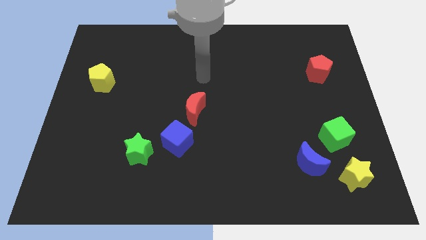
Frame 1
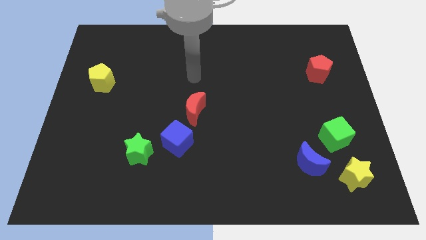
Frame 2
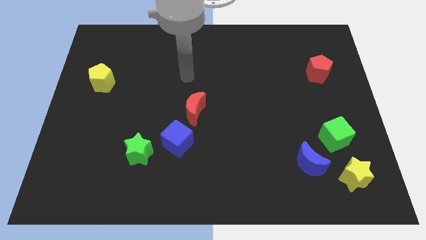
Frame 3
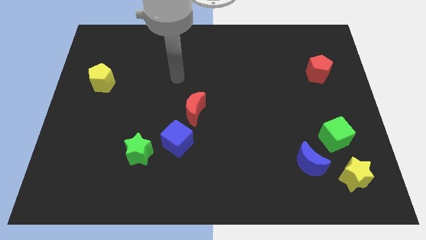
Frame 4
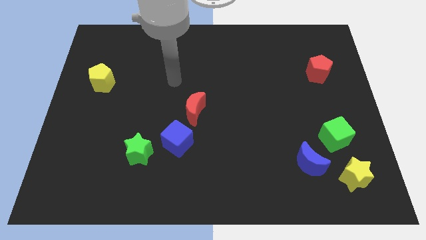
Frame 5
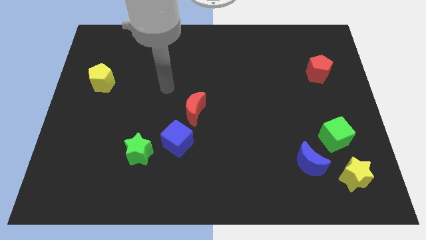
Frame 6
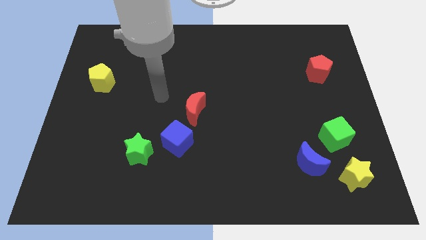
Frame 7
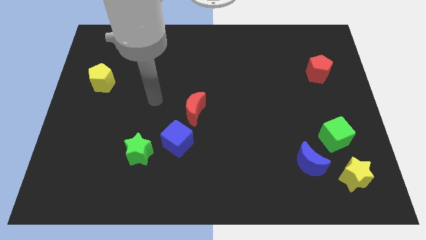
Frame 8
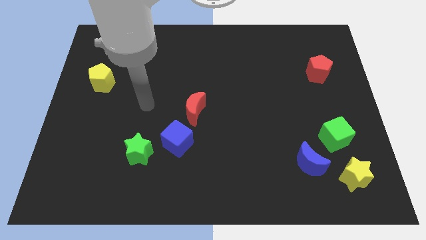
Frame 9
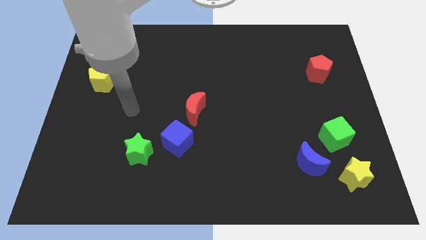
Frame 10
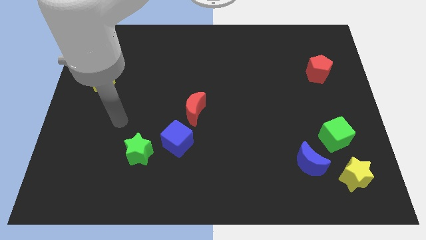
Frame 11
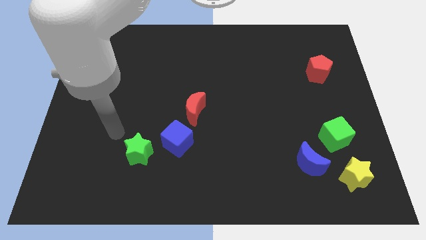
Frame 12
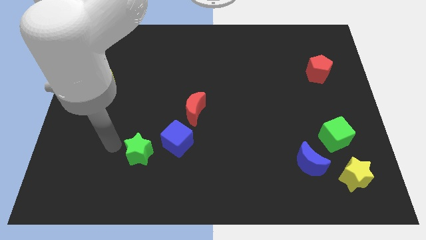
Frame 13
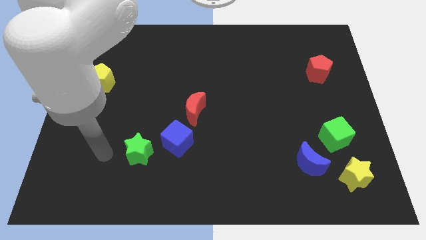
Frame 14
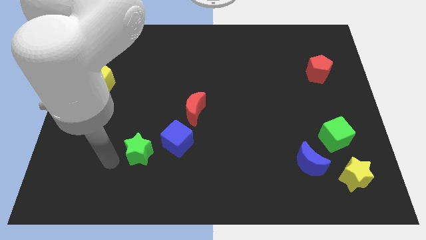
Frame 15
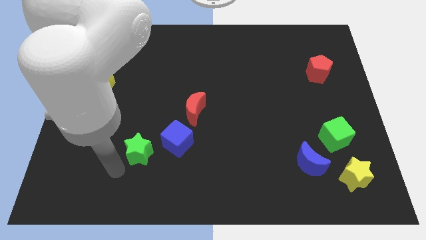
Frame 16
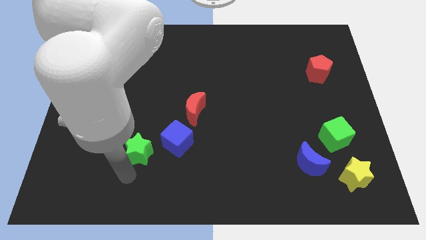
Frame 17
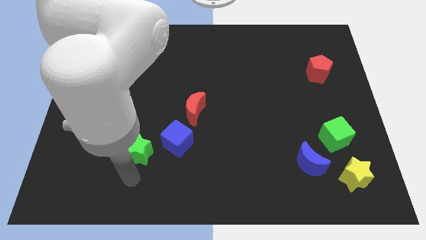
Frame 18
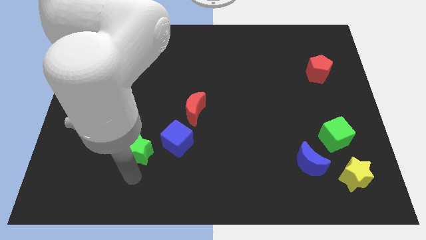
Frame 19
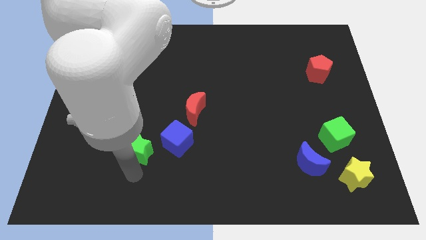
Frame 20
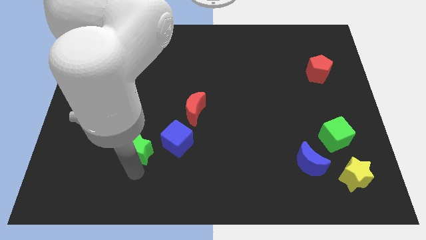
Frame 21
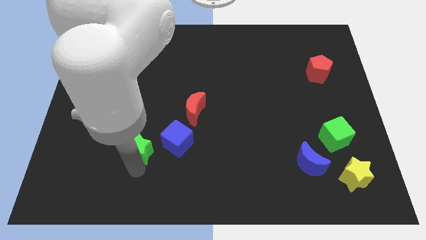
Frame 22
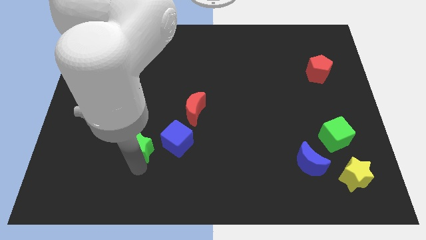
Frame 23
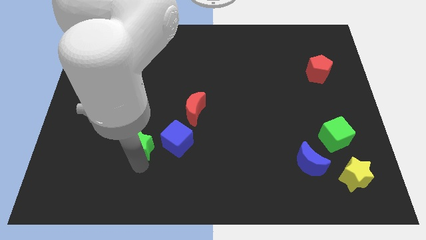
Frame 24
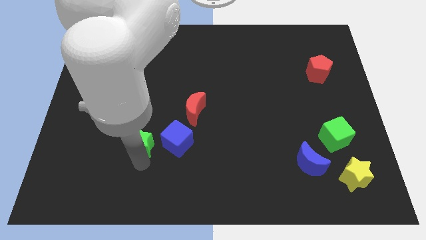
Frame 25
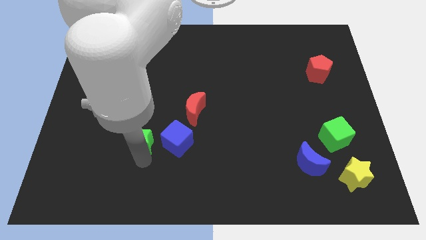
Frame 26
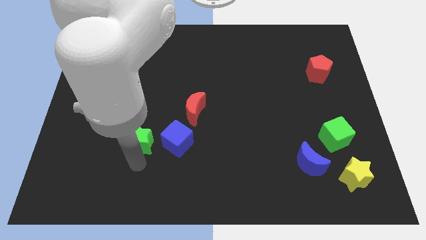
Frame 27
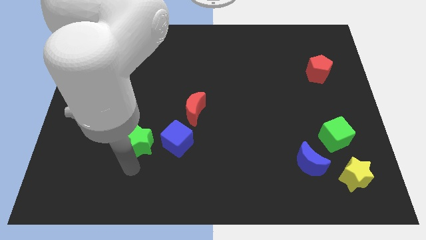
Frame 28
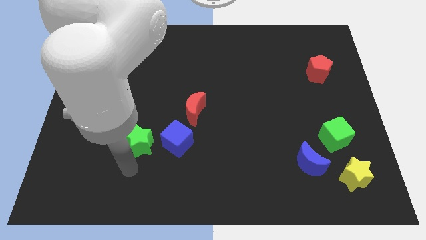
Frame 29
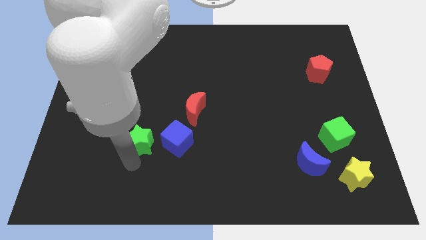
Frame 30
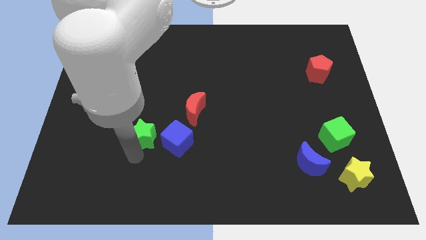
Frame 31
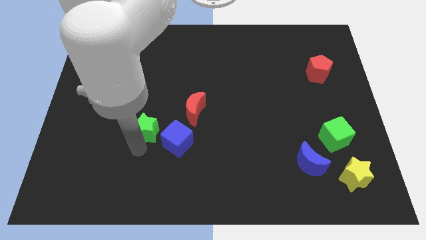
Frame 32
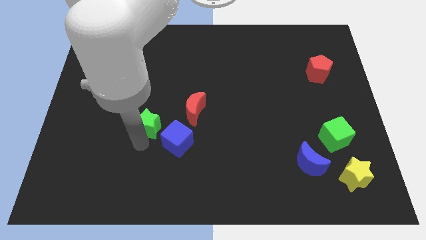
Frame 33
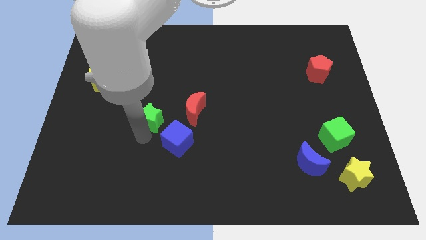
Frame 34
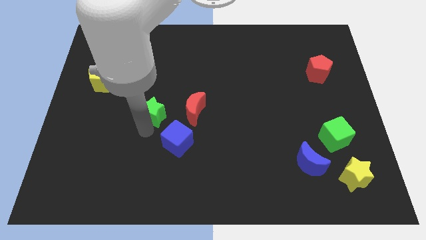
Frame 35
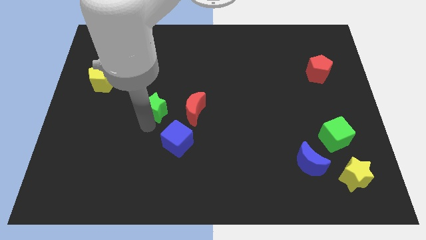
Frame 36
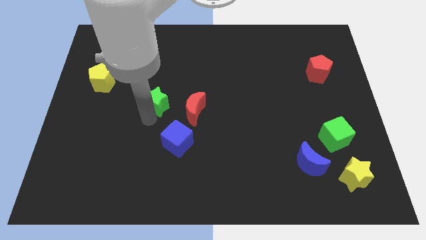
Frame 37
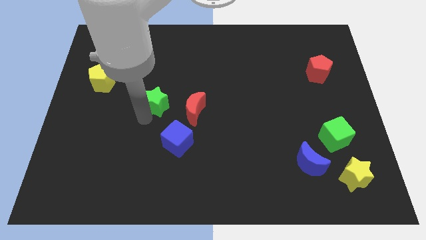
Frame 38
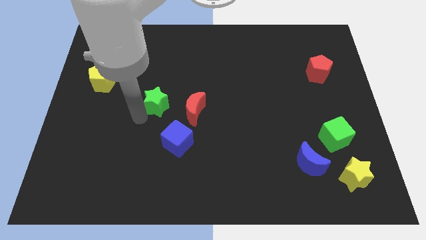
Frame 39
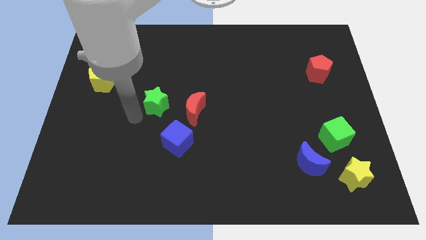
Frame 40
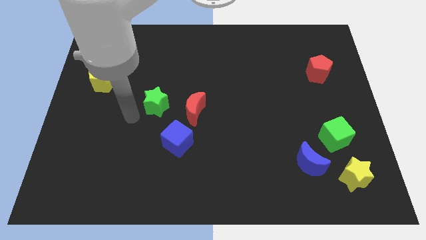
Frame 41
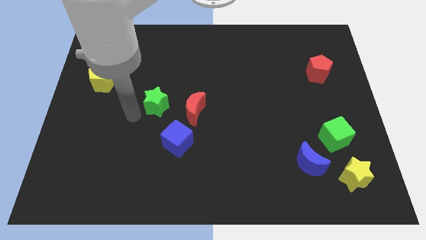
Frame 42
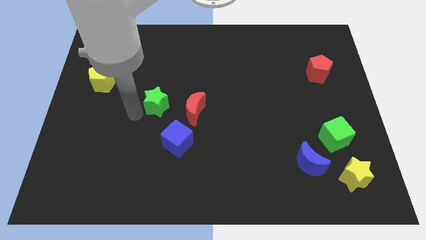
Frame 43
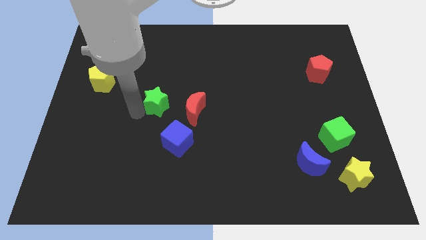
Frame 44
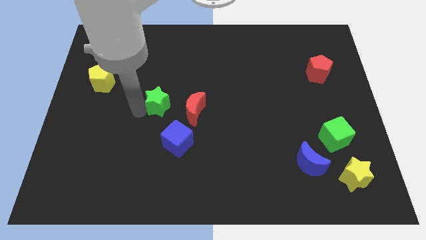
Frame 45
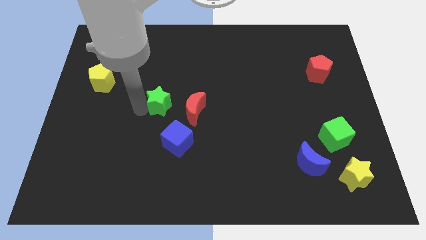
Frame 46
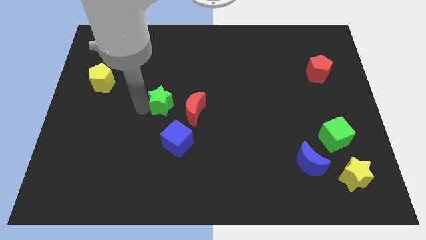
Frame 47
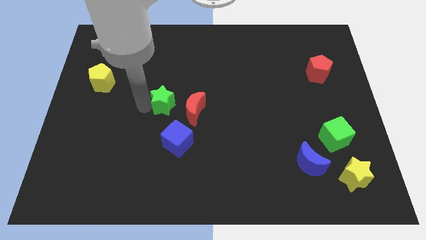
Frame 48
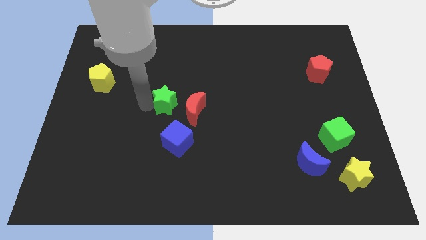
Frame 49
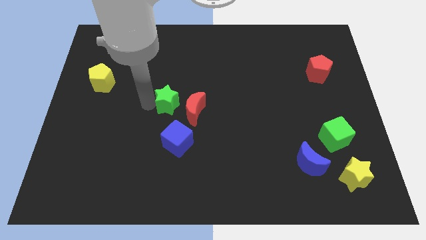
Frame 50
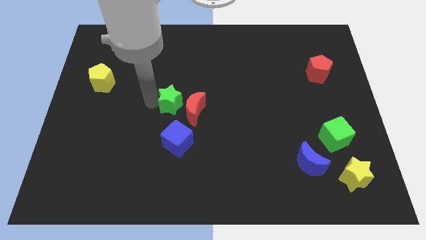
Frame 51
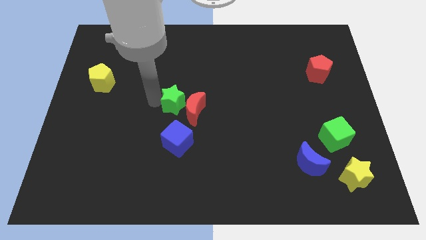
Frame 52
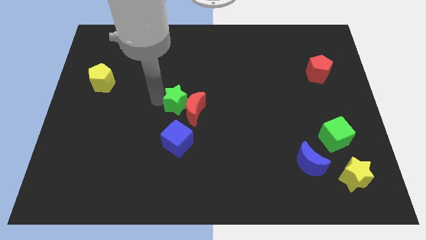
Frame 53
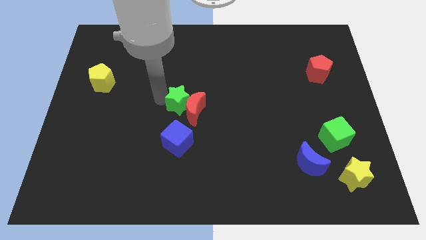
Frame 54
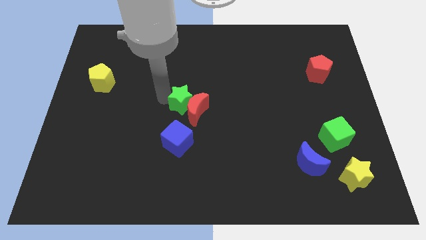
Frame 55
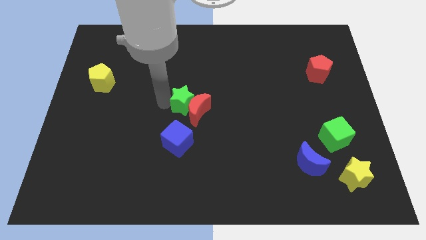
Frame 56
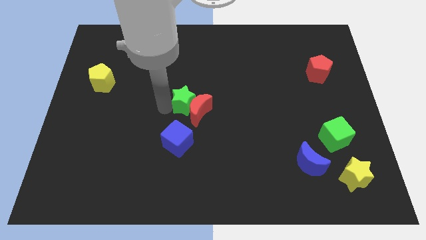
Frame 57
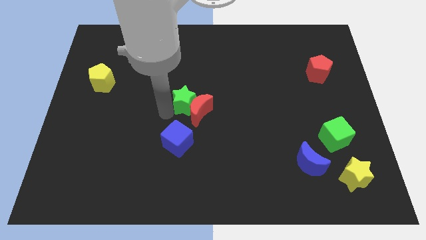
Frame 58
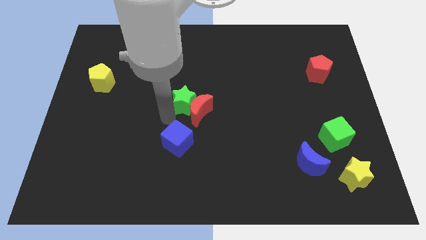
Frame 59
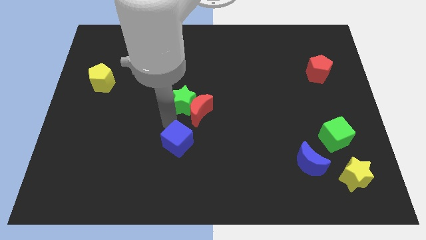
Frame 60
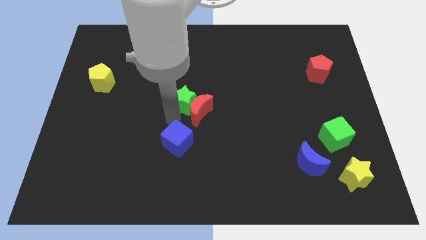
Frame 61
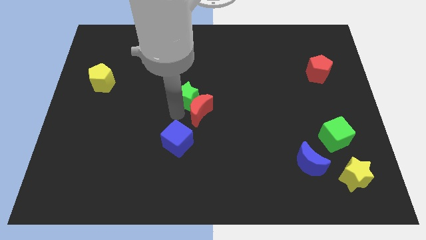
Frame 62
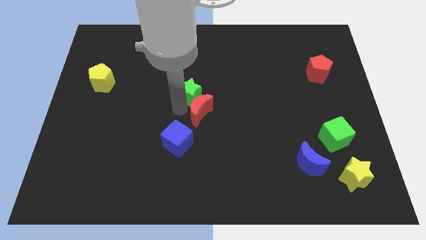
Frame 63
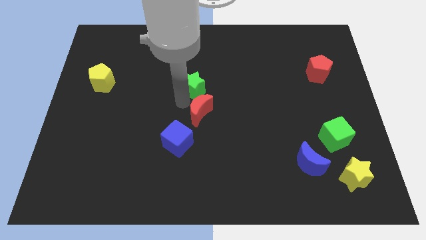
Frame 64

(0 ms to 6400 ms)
push the green star up and to the right diagonally

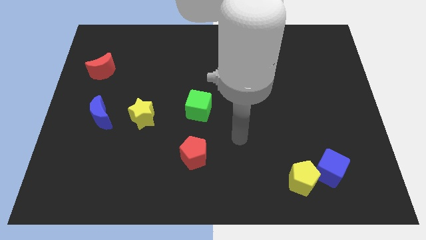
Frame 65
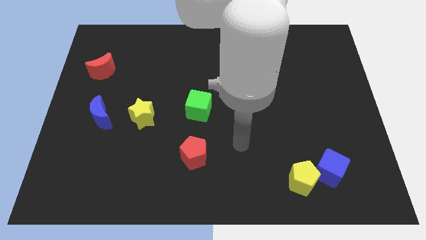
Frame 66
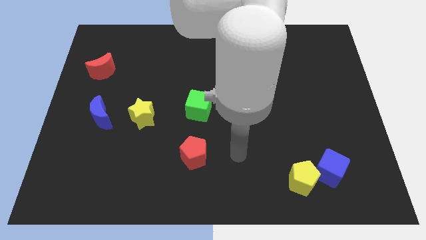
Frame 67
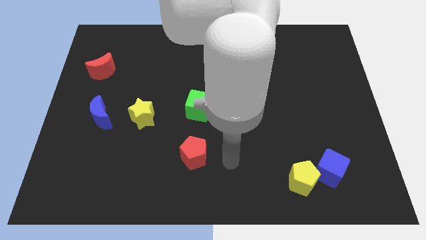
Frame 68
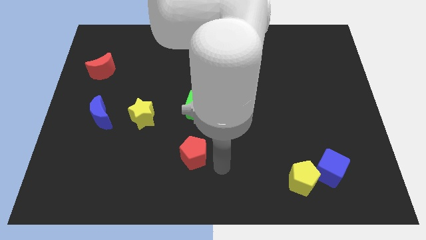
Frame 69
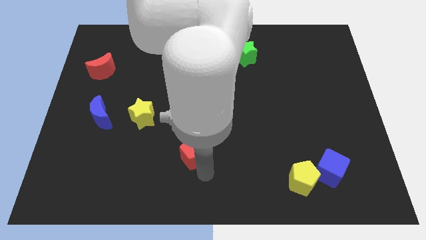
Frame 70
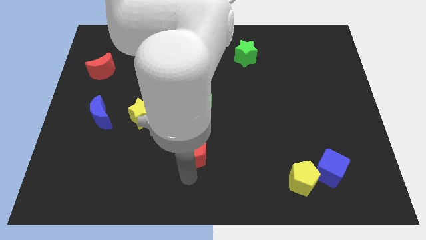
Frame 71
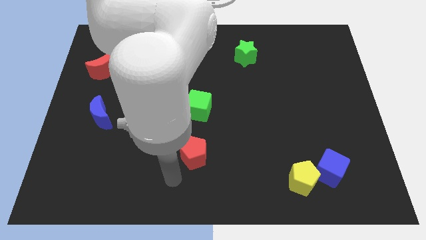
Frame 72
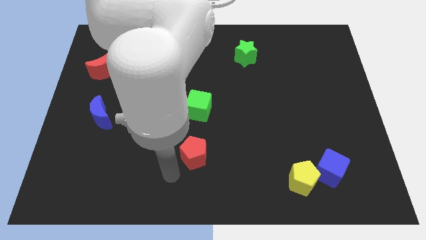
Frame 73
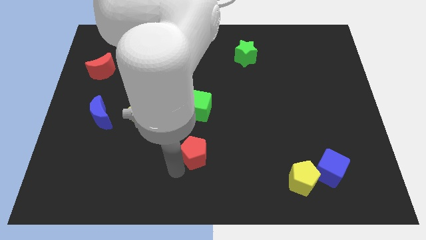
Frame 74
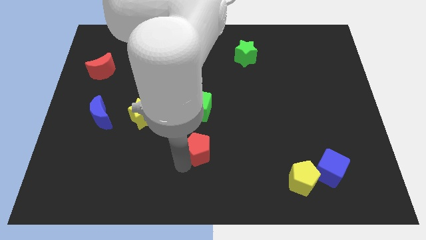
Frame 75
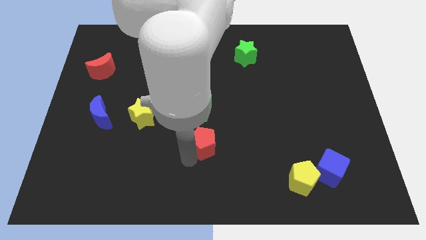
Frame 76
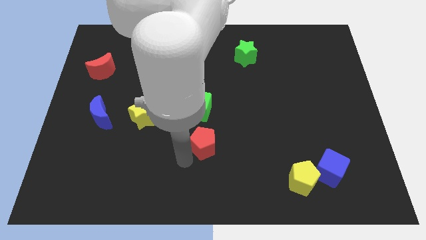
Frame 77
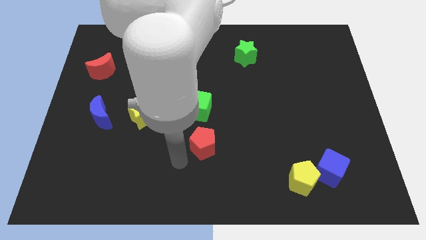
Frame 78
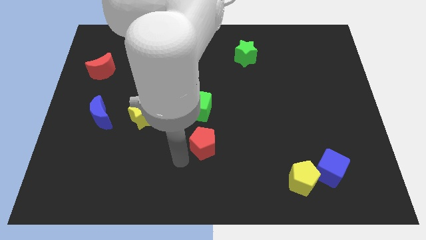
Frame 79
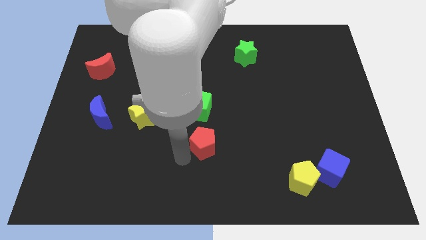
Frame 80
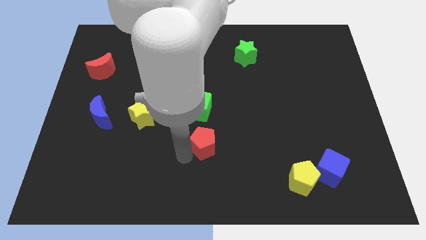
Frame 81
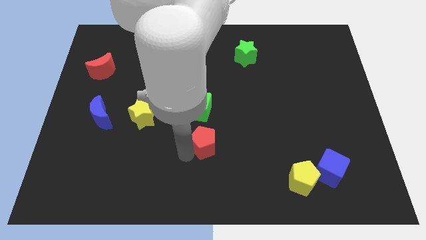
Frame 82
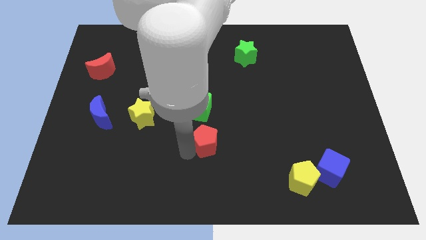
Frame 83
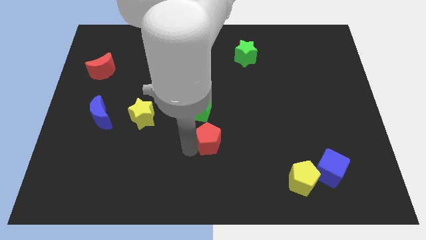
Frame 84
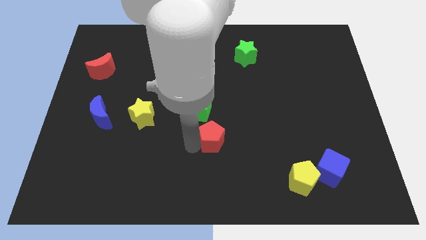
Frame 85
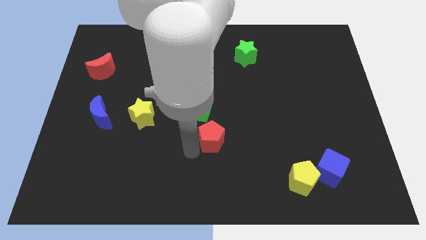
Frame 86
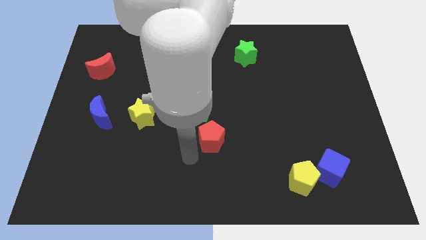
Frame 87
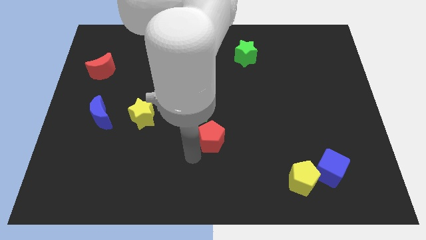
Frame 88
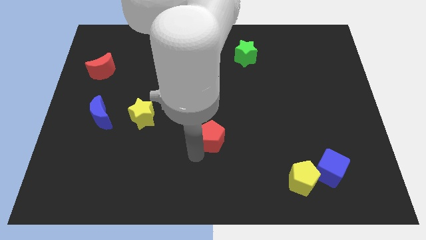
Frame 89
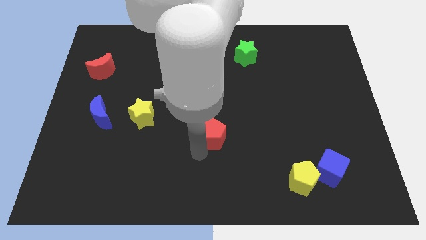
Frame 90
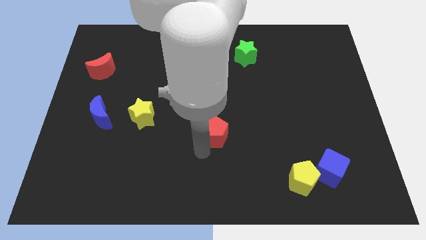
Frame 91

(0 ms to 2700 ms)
slightly move the red pentagon upwards and then to the right
